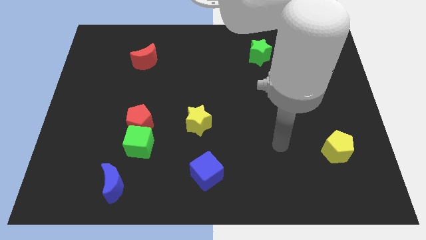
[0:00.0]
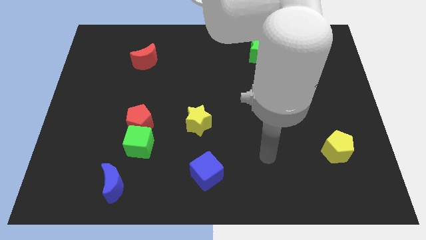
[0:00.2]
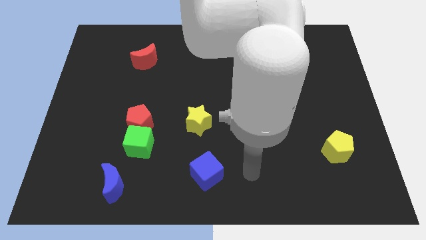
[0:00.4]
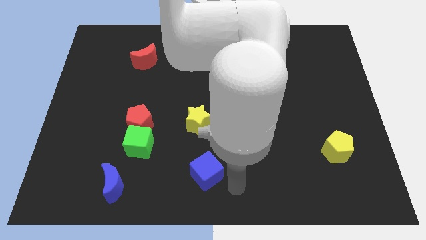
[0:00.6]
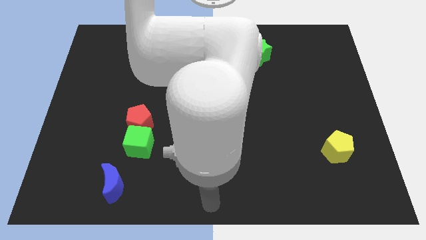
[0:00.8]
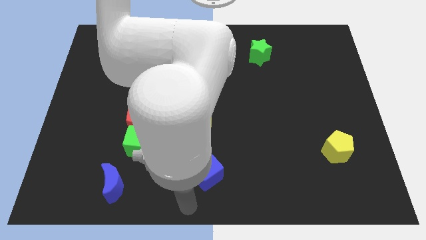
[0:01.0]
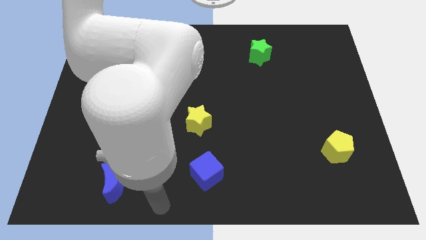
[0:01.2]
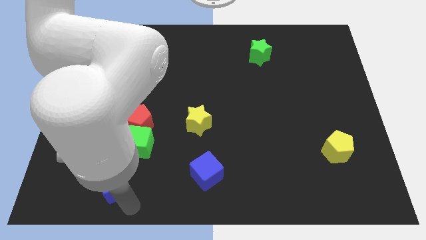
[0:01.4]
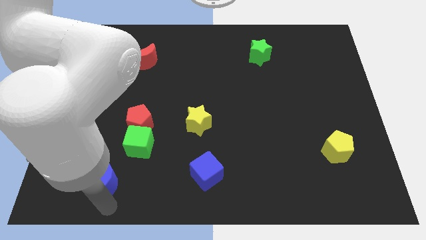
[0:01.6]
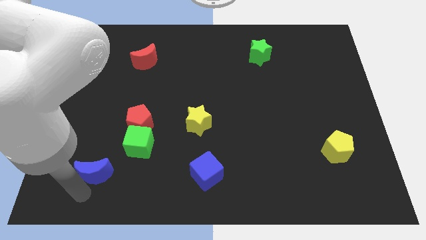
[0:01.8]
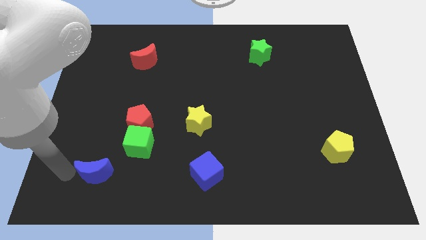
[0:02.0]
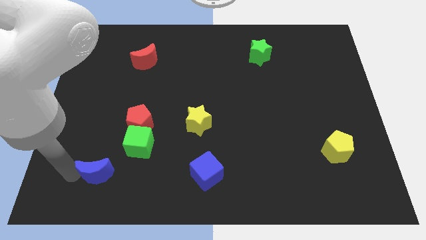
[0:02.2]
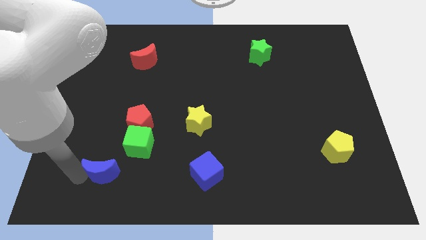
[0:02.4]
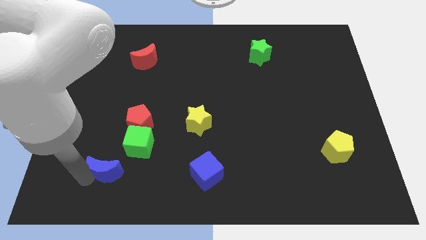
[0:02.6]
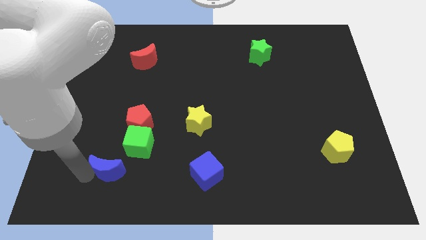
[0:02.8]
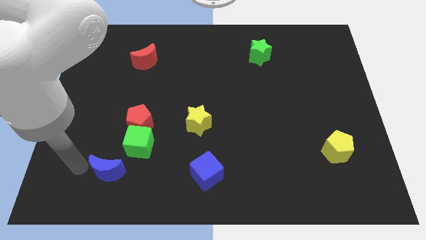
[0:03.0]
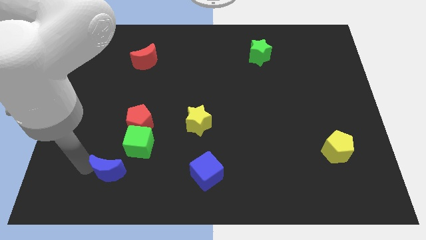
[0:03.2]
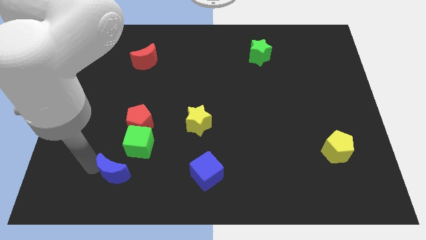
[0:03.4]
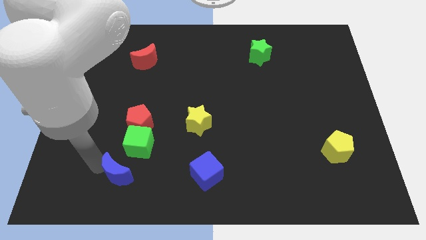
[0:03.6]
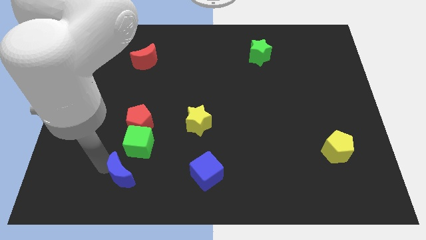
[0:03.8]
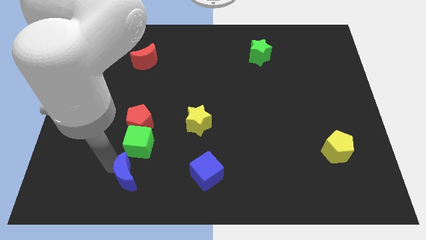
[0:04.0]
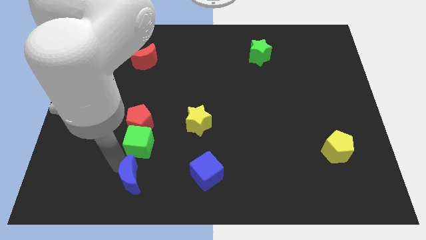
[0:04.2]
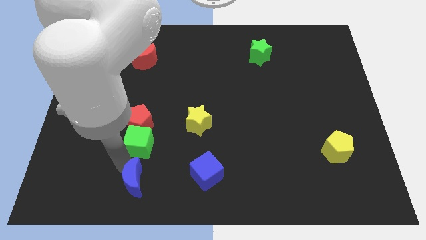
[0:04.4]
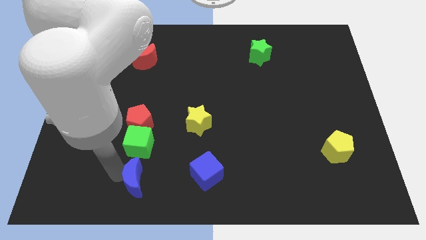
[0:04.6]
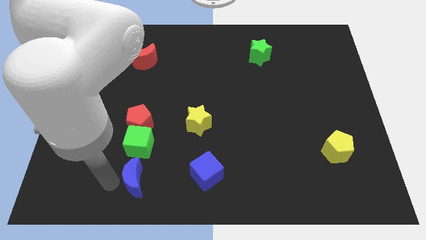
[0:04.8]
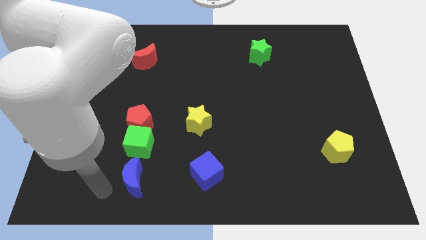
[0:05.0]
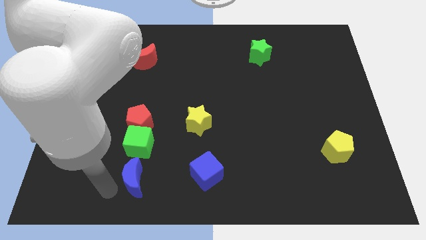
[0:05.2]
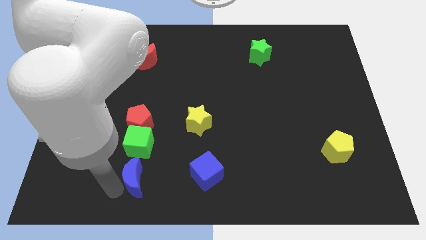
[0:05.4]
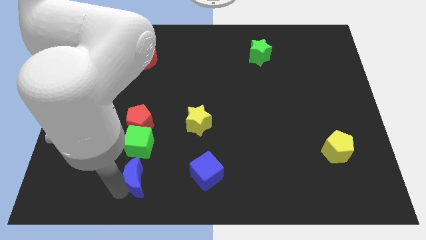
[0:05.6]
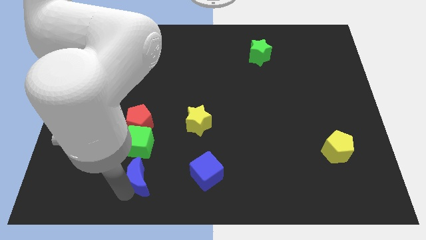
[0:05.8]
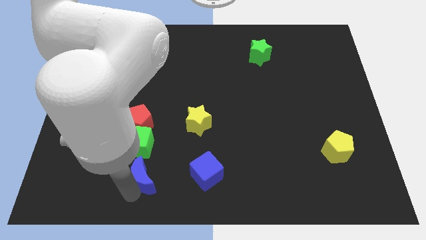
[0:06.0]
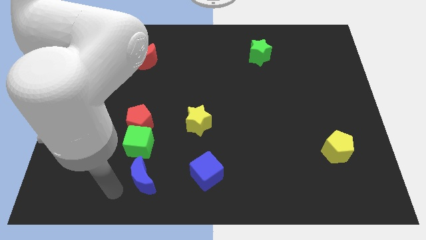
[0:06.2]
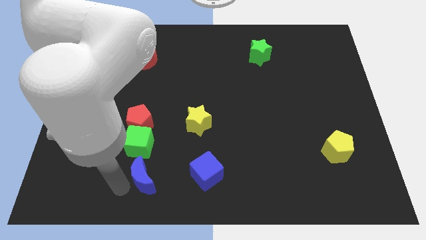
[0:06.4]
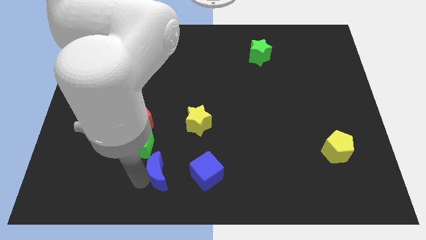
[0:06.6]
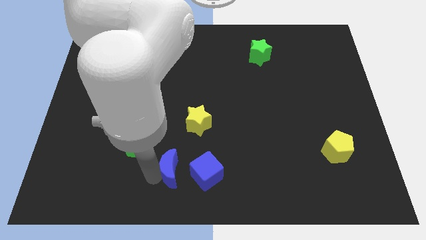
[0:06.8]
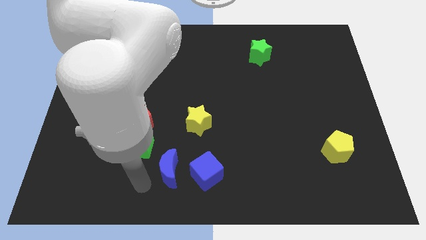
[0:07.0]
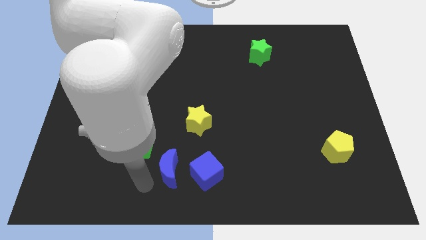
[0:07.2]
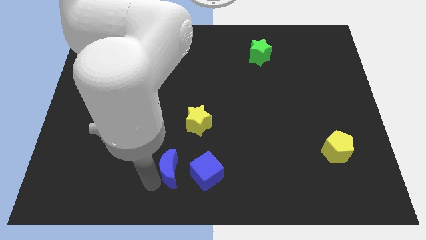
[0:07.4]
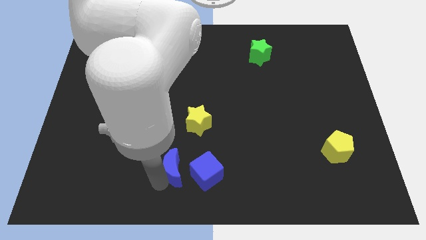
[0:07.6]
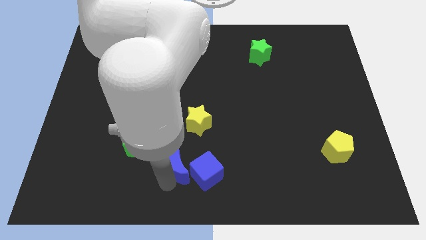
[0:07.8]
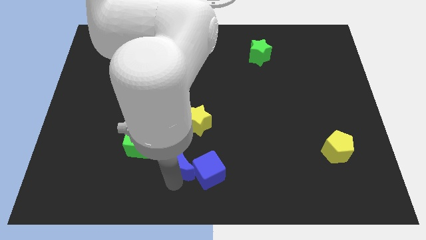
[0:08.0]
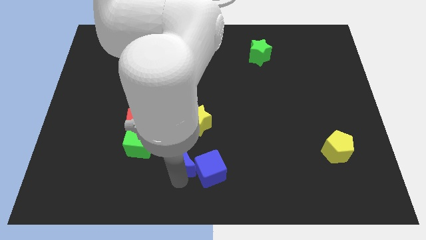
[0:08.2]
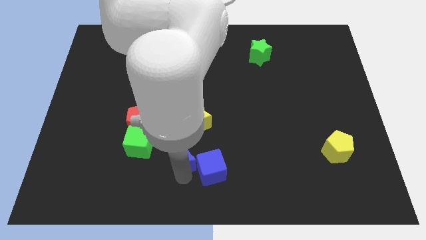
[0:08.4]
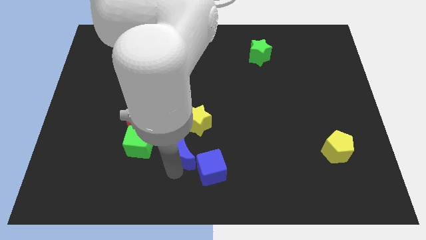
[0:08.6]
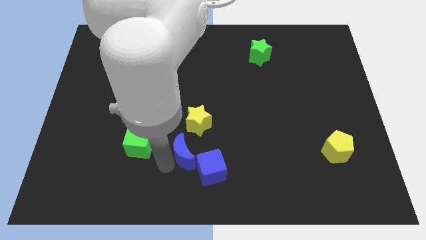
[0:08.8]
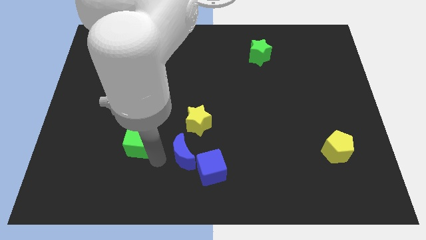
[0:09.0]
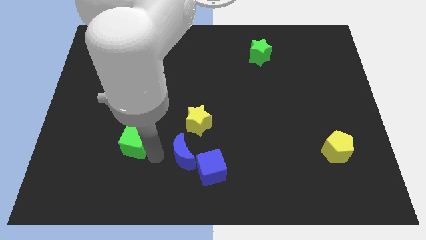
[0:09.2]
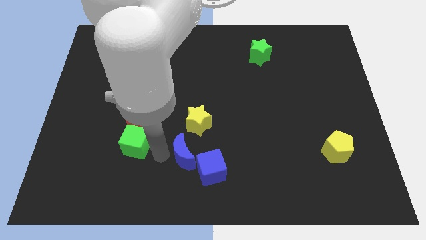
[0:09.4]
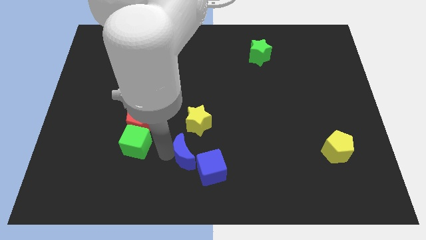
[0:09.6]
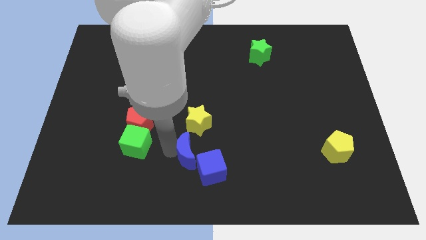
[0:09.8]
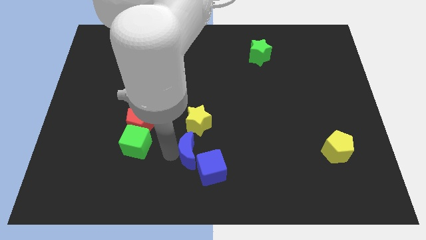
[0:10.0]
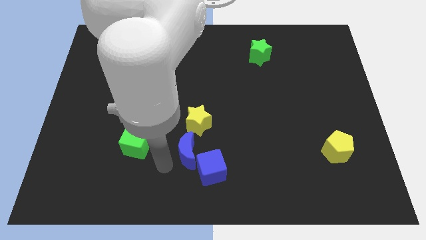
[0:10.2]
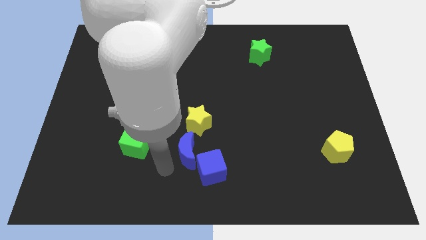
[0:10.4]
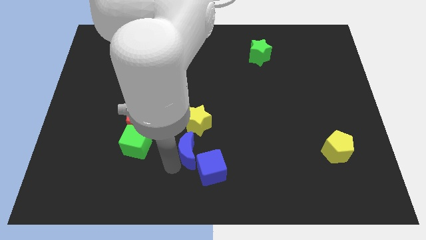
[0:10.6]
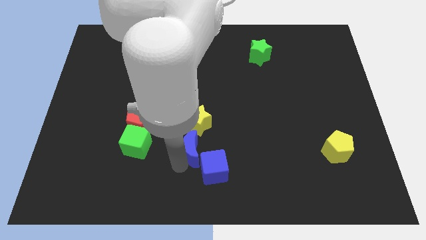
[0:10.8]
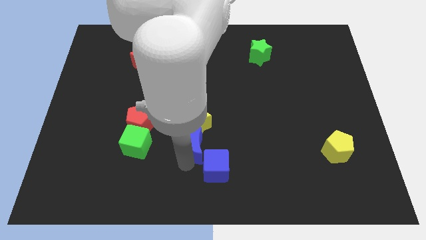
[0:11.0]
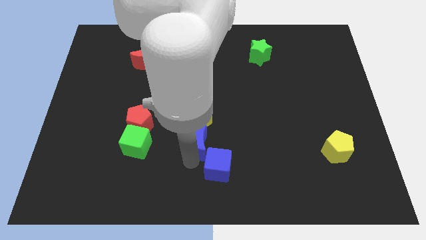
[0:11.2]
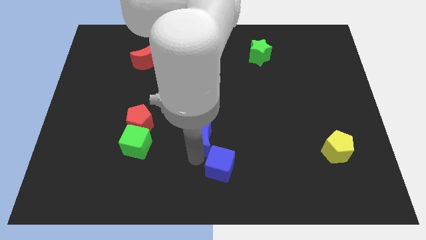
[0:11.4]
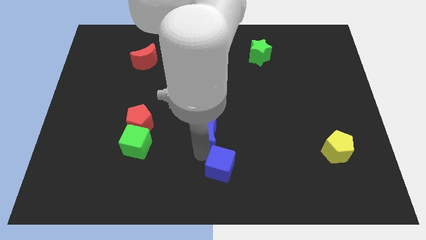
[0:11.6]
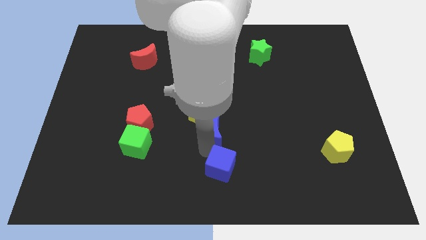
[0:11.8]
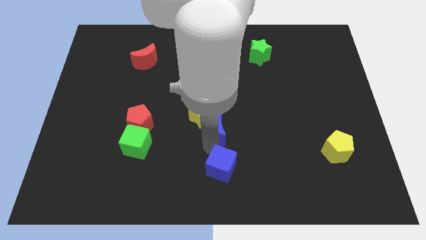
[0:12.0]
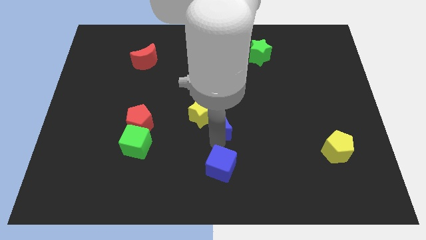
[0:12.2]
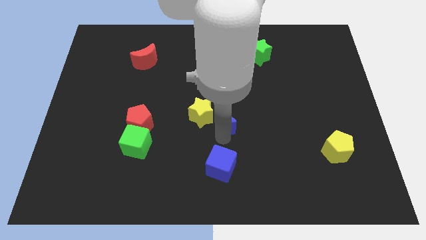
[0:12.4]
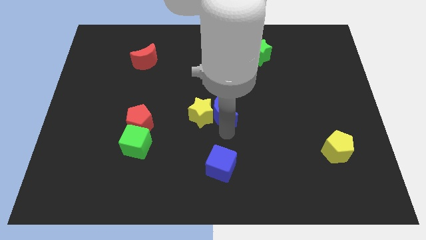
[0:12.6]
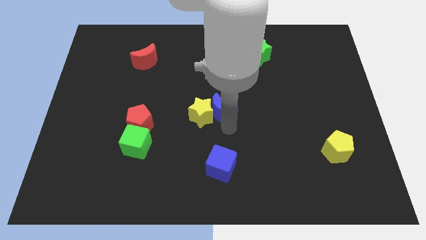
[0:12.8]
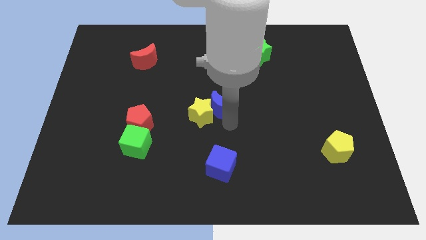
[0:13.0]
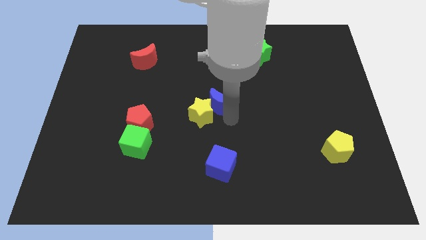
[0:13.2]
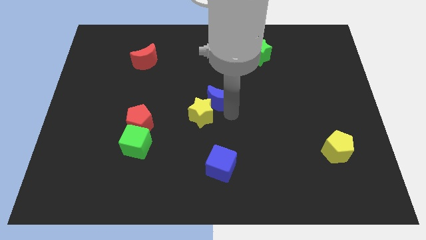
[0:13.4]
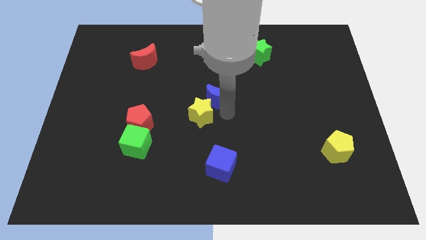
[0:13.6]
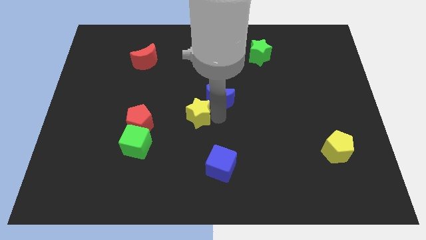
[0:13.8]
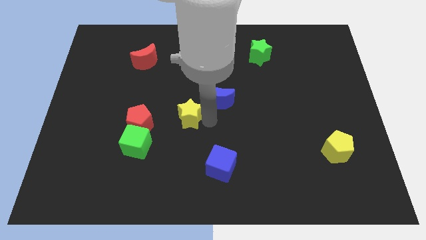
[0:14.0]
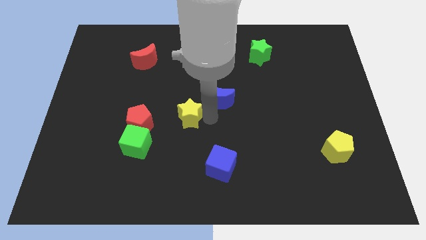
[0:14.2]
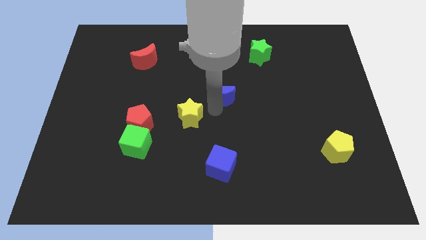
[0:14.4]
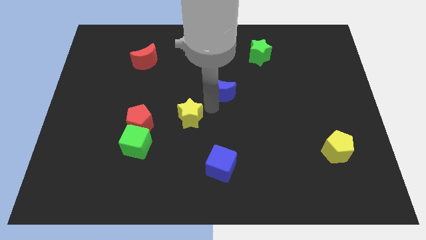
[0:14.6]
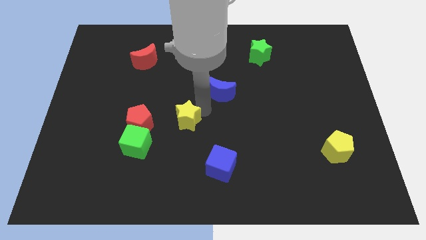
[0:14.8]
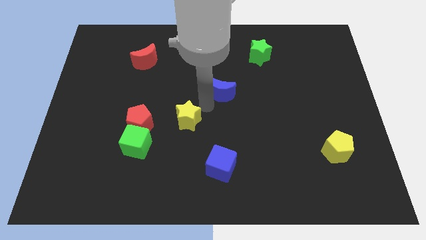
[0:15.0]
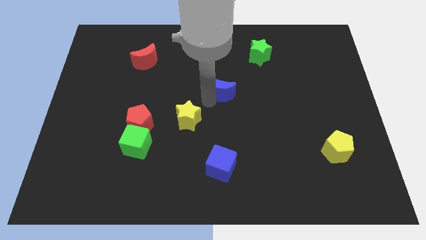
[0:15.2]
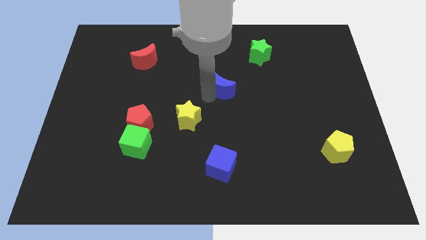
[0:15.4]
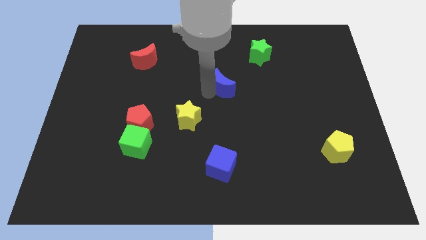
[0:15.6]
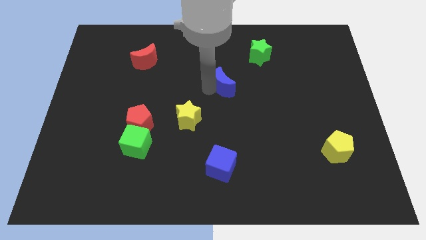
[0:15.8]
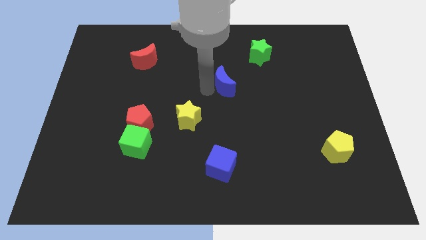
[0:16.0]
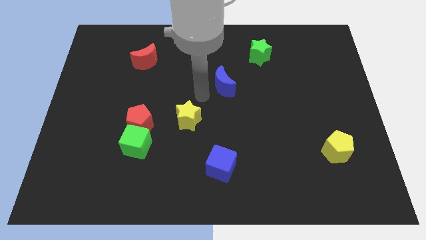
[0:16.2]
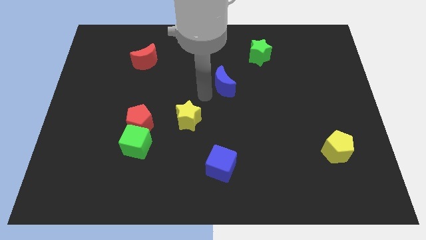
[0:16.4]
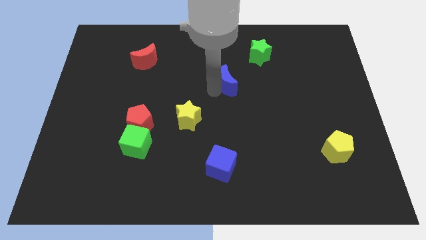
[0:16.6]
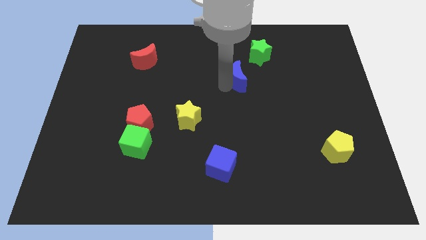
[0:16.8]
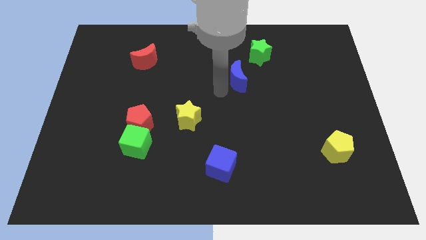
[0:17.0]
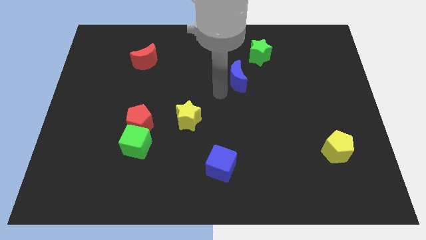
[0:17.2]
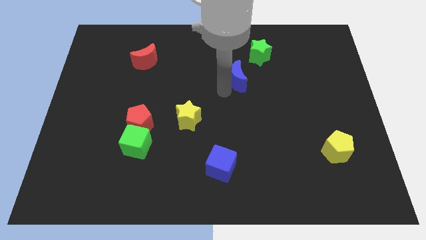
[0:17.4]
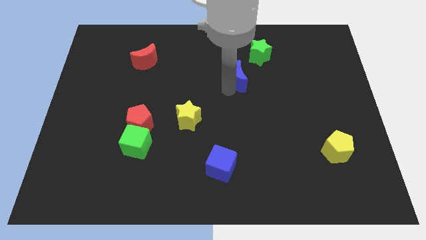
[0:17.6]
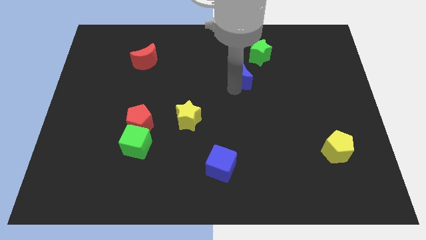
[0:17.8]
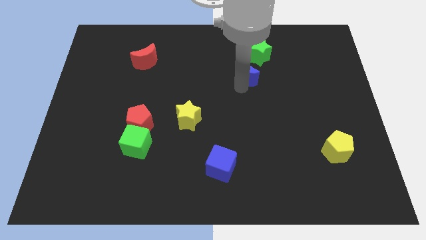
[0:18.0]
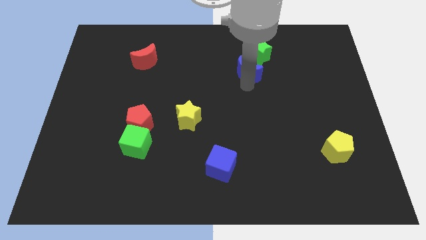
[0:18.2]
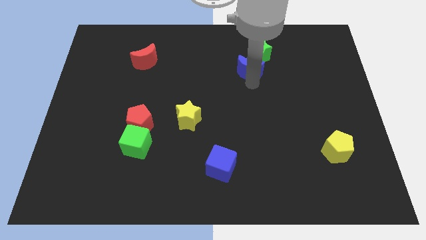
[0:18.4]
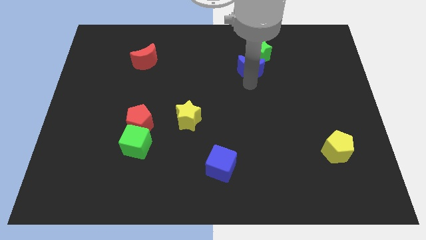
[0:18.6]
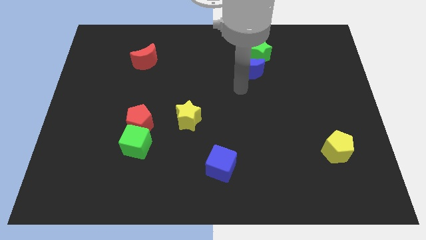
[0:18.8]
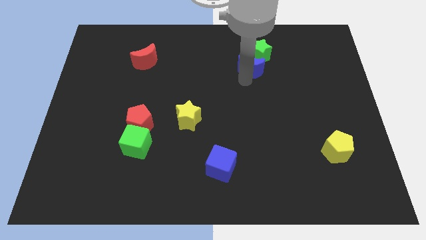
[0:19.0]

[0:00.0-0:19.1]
put the blue moon to the green star
